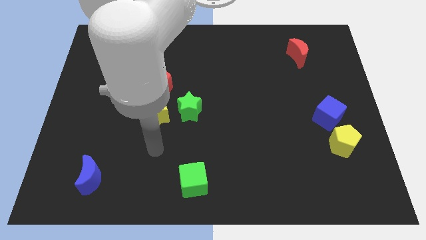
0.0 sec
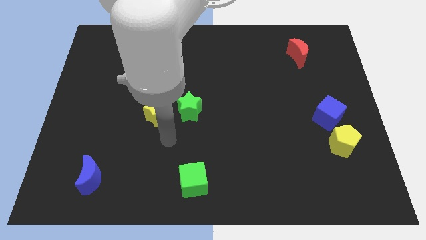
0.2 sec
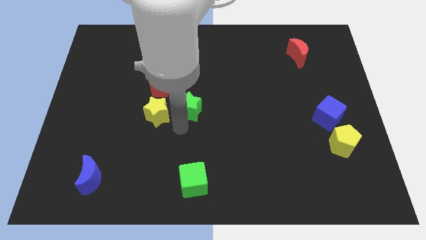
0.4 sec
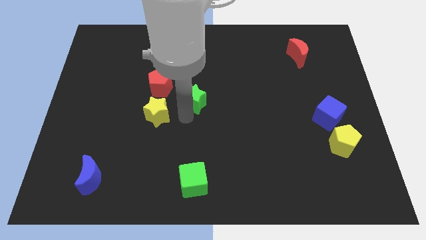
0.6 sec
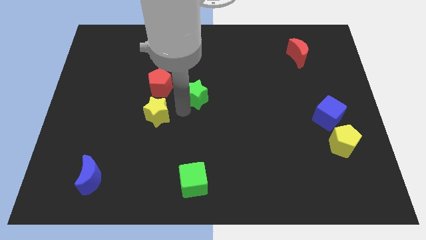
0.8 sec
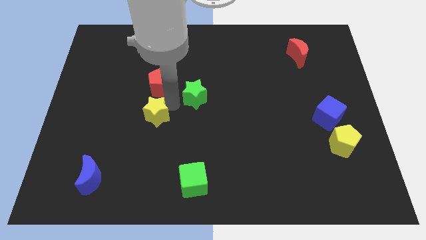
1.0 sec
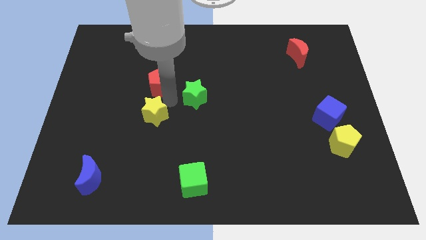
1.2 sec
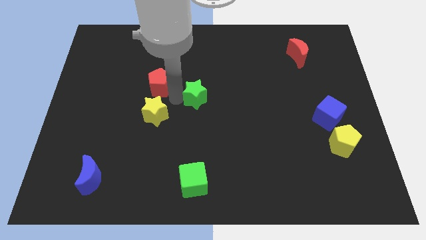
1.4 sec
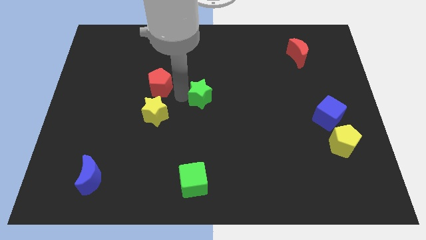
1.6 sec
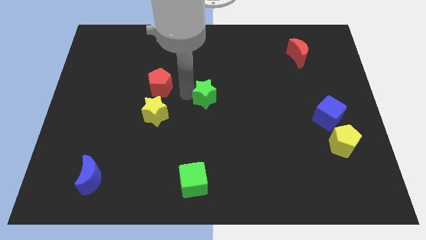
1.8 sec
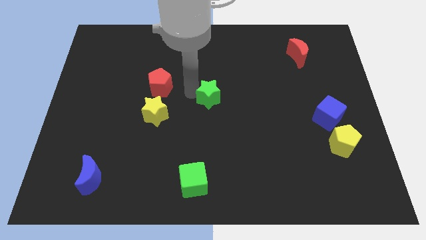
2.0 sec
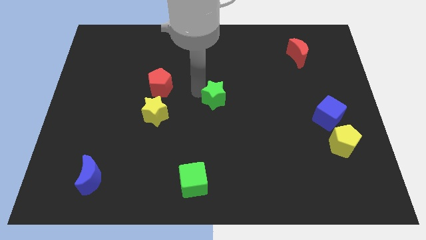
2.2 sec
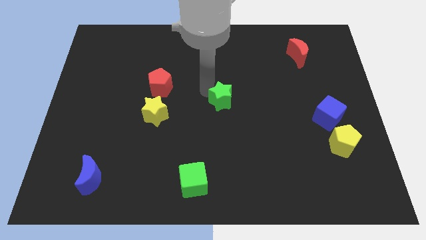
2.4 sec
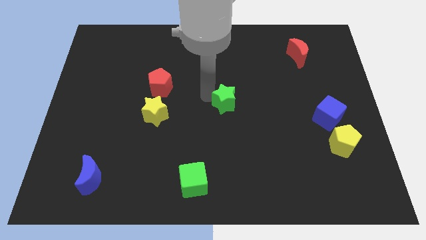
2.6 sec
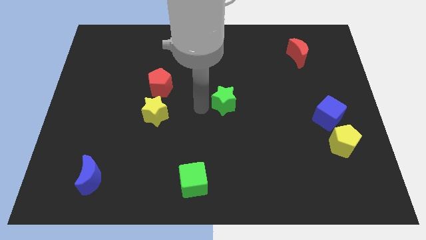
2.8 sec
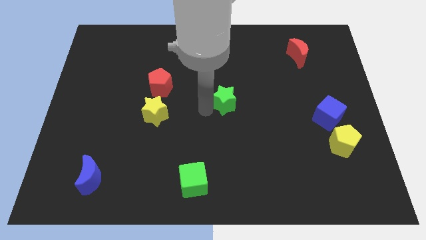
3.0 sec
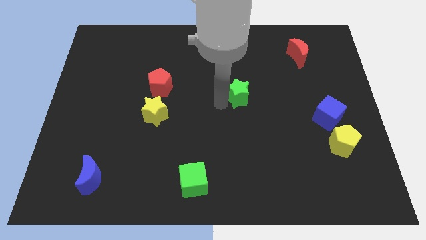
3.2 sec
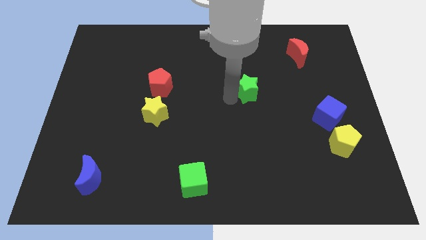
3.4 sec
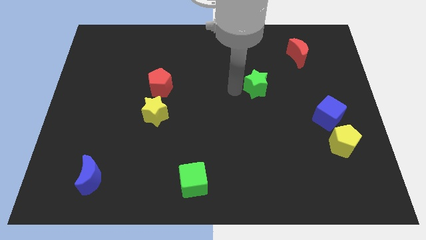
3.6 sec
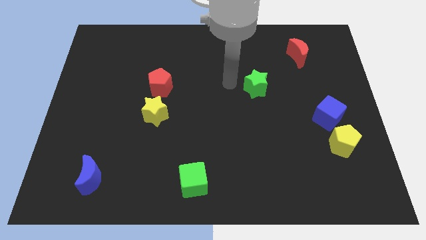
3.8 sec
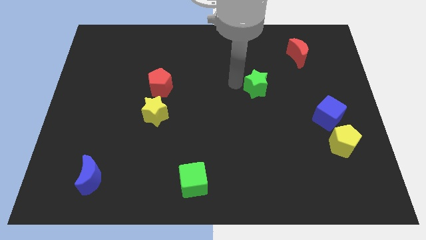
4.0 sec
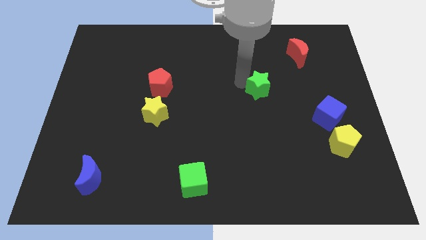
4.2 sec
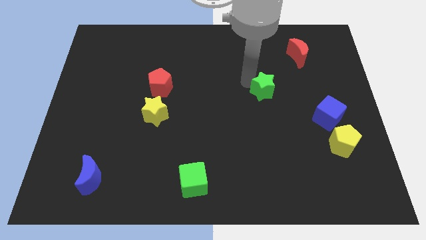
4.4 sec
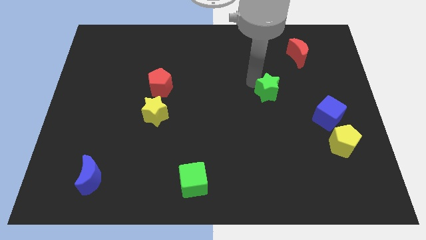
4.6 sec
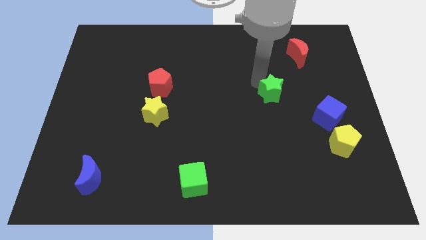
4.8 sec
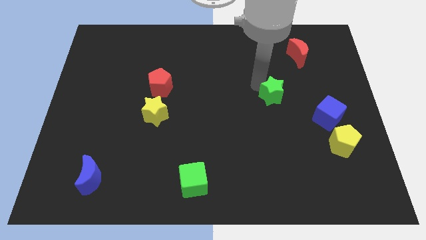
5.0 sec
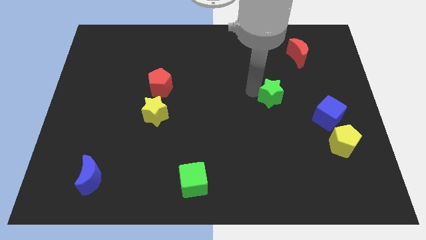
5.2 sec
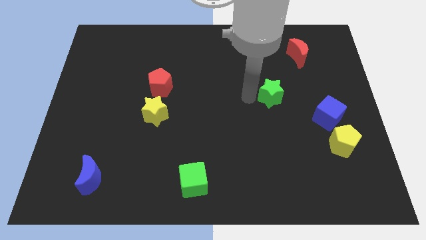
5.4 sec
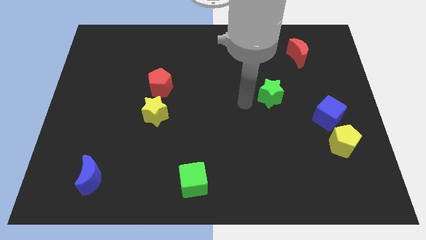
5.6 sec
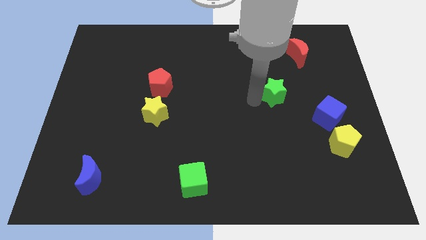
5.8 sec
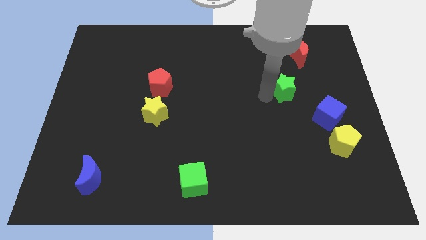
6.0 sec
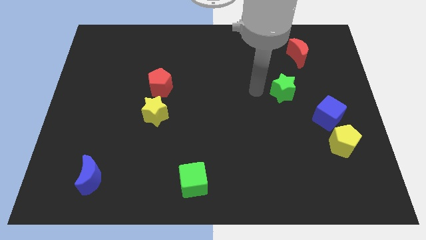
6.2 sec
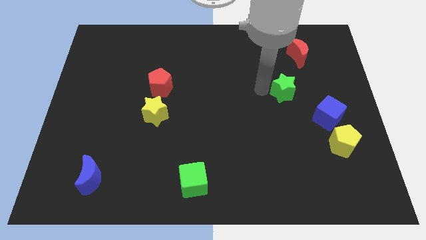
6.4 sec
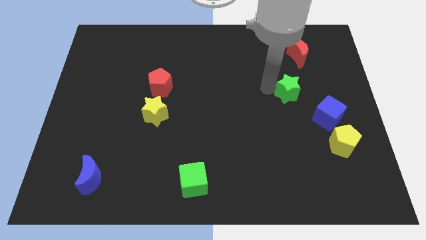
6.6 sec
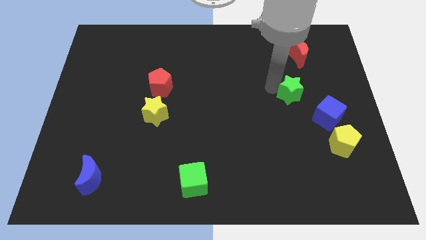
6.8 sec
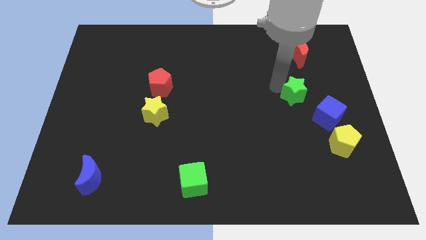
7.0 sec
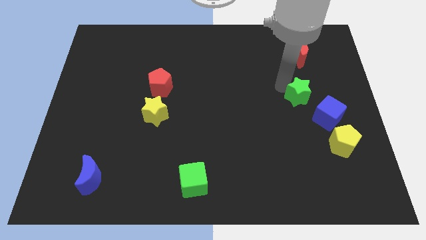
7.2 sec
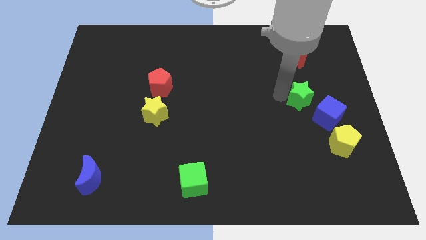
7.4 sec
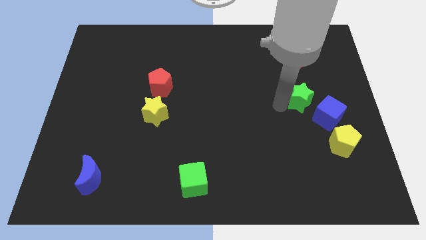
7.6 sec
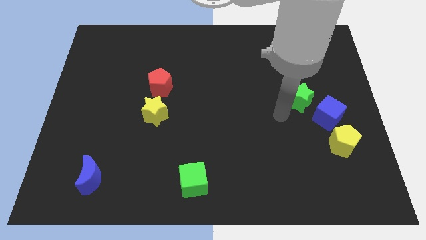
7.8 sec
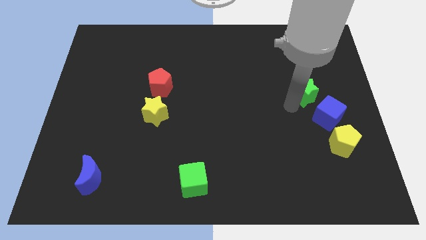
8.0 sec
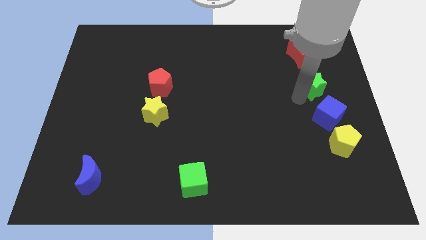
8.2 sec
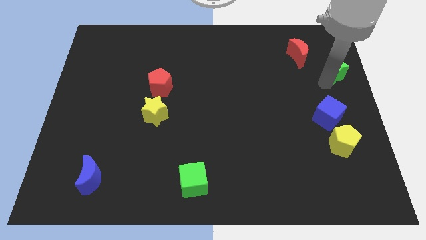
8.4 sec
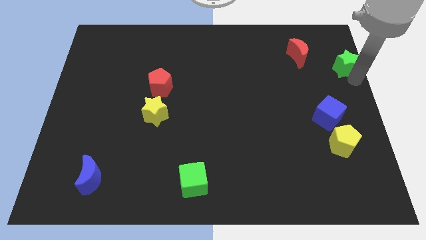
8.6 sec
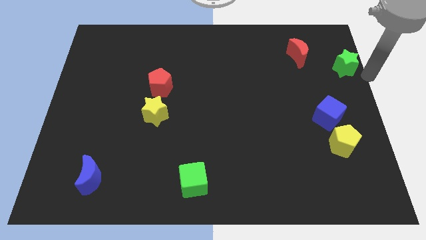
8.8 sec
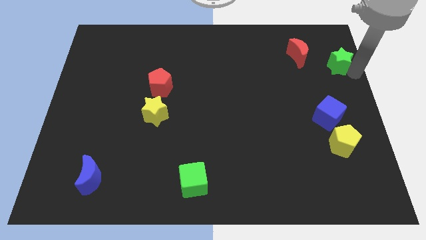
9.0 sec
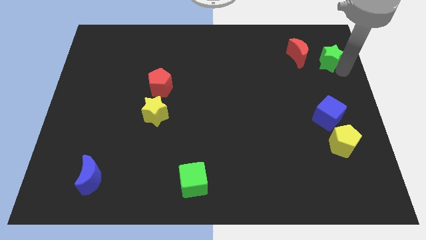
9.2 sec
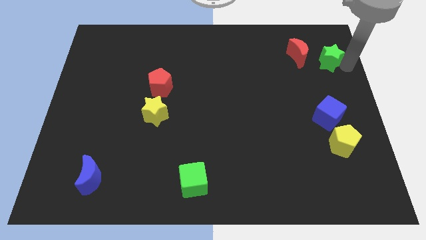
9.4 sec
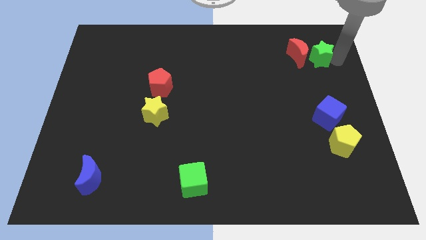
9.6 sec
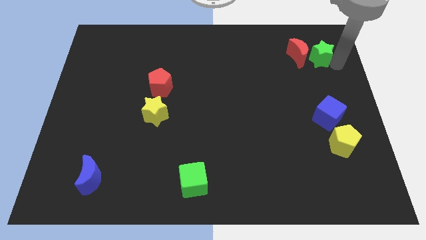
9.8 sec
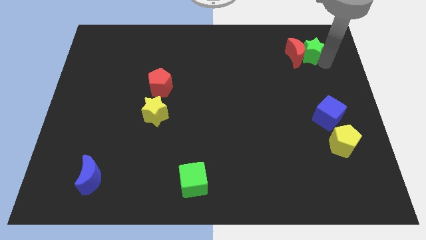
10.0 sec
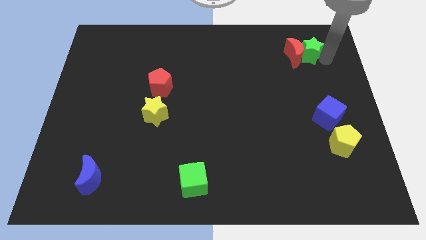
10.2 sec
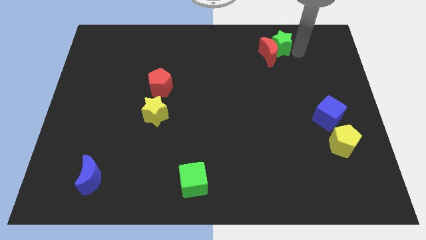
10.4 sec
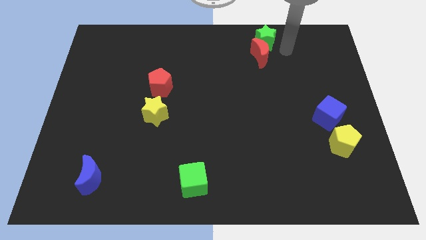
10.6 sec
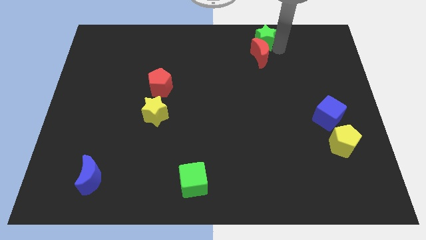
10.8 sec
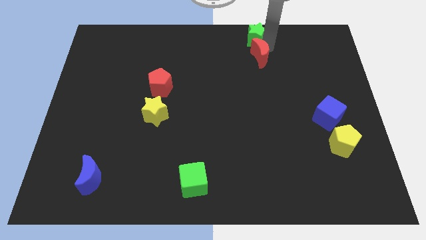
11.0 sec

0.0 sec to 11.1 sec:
put the green star to the top
